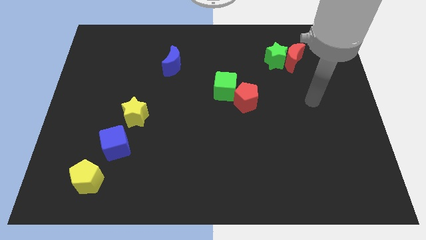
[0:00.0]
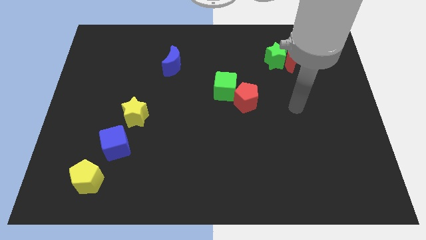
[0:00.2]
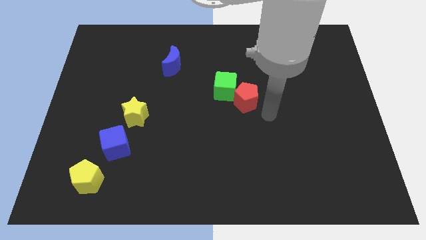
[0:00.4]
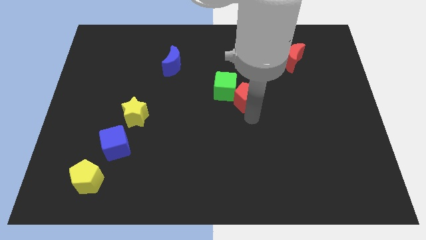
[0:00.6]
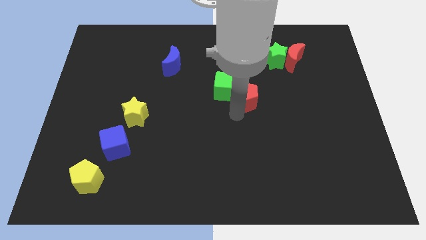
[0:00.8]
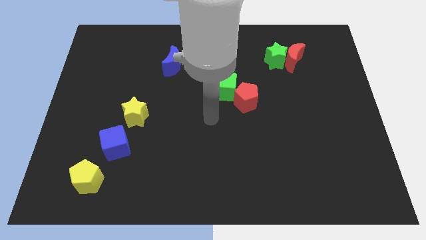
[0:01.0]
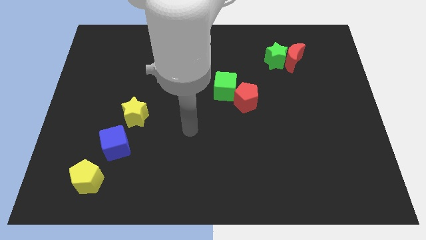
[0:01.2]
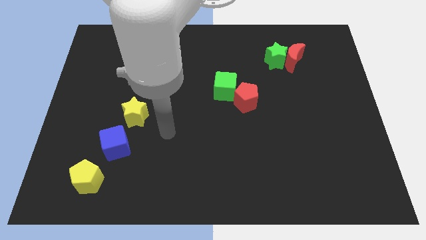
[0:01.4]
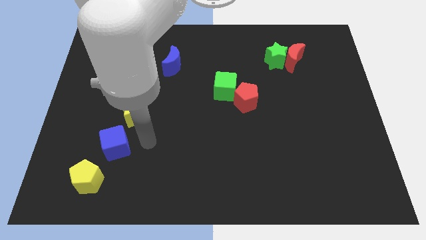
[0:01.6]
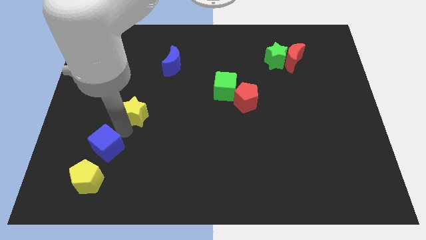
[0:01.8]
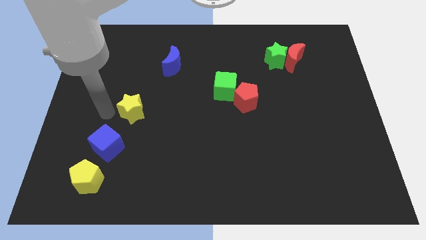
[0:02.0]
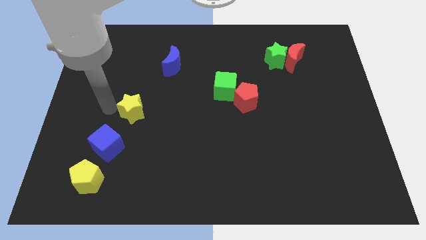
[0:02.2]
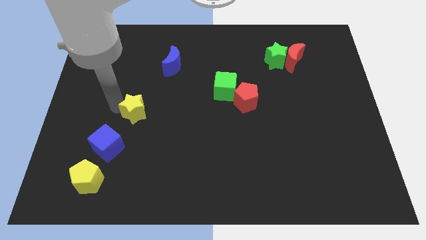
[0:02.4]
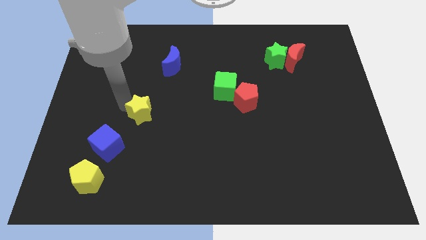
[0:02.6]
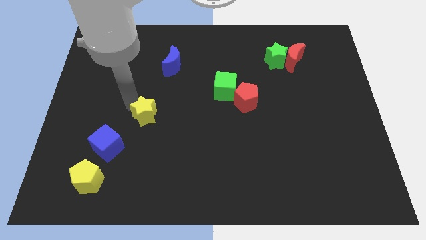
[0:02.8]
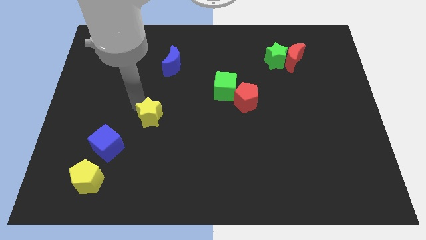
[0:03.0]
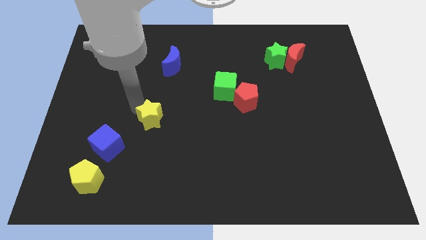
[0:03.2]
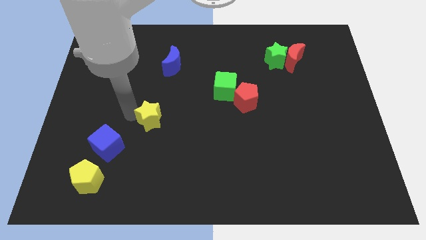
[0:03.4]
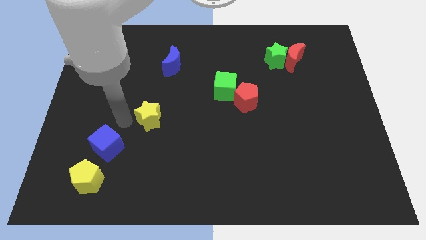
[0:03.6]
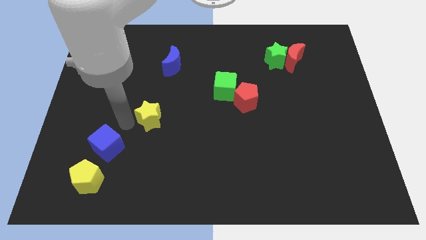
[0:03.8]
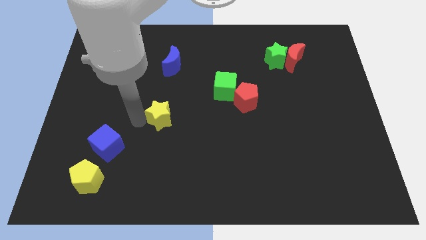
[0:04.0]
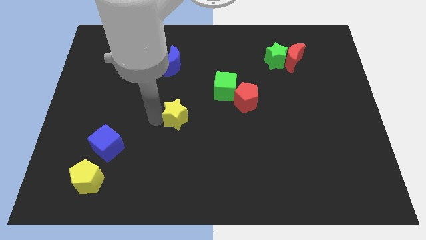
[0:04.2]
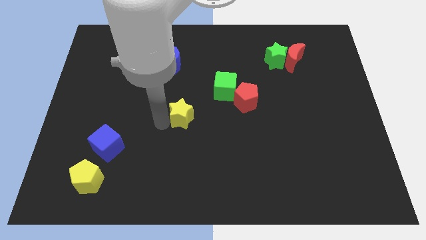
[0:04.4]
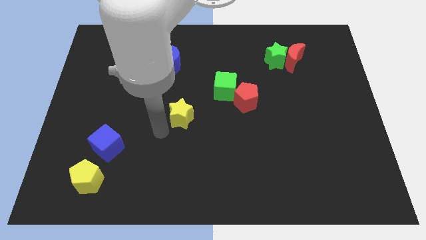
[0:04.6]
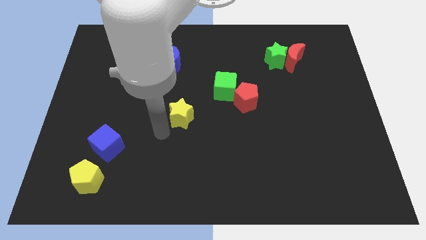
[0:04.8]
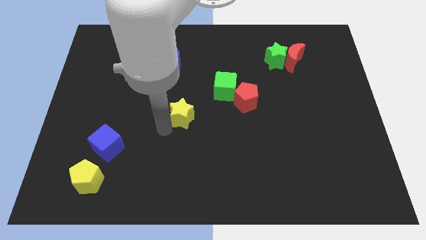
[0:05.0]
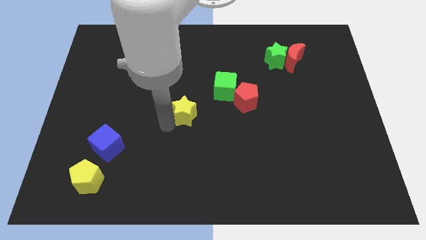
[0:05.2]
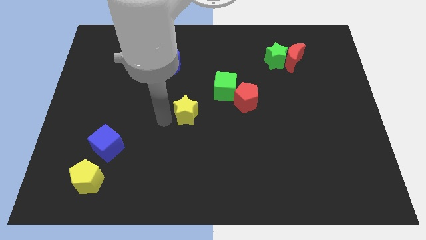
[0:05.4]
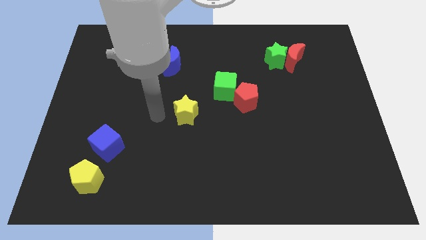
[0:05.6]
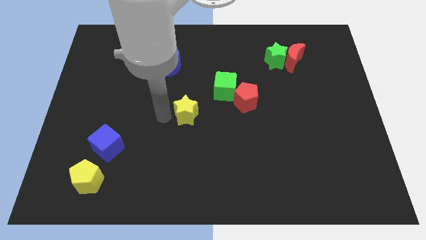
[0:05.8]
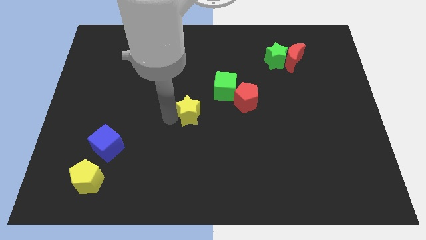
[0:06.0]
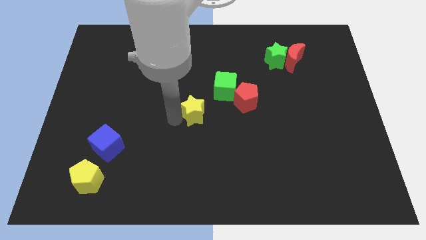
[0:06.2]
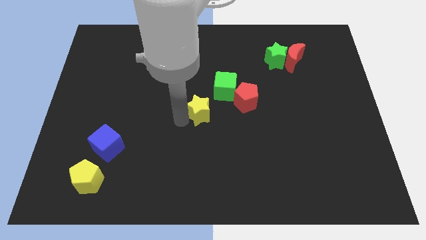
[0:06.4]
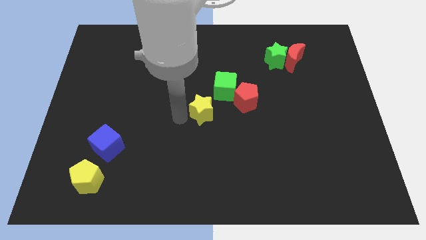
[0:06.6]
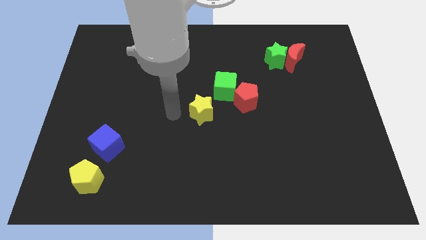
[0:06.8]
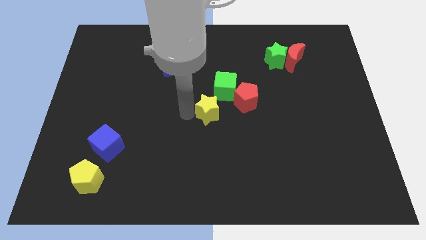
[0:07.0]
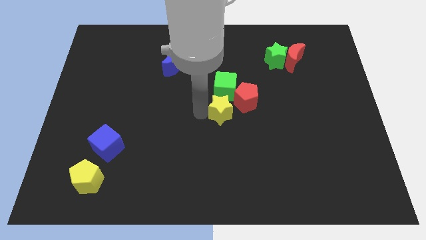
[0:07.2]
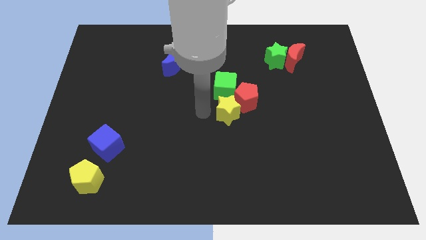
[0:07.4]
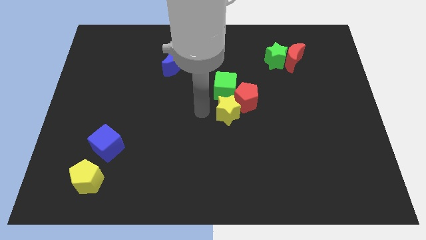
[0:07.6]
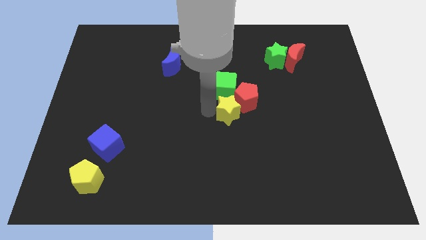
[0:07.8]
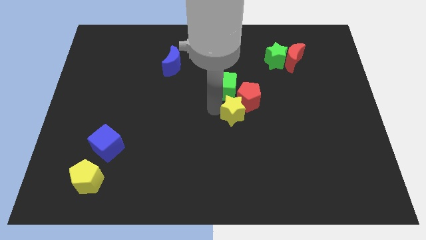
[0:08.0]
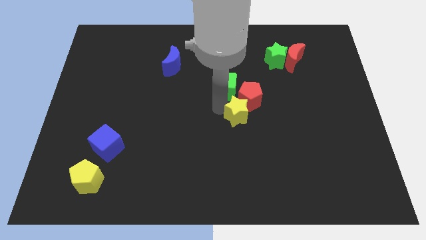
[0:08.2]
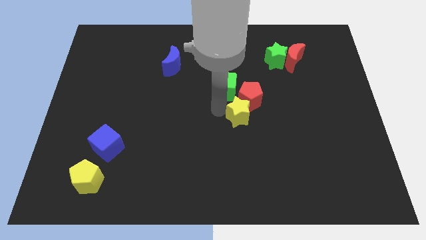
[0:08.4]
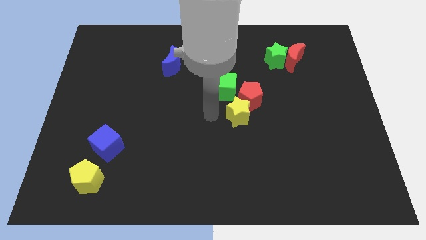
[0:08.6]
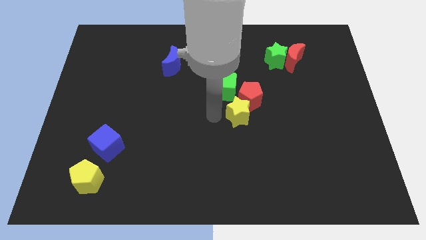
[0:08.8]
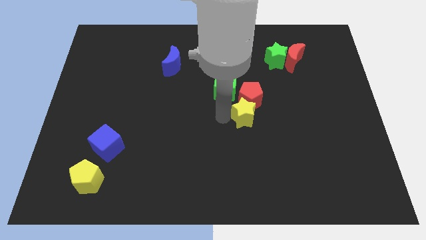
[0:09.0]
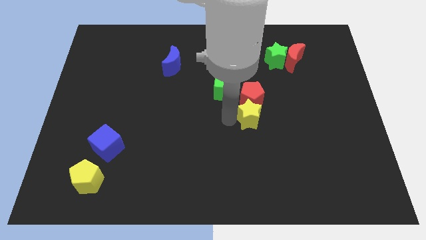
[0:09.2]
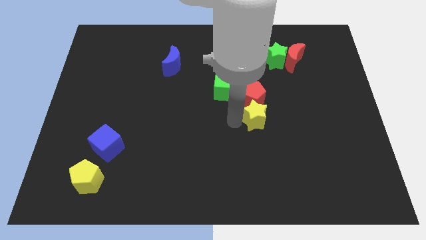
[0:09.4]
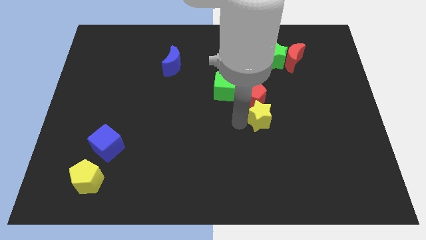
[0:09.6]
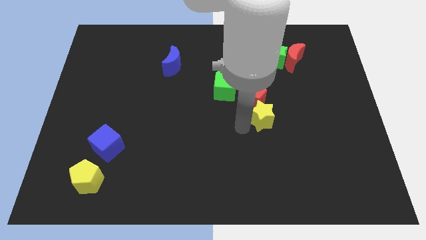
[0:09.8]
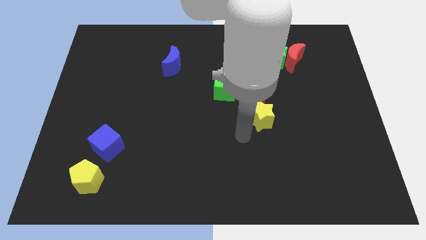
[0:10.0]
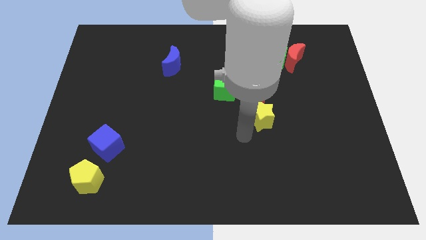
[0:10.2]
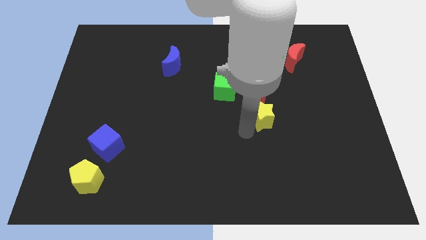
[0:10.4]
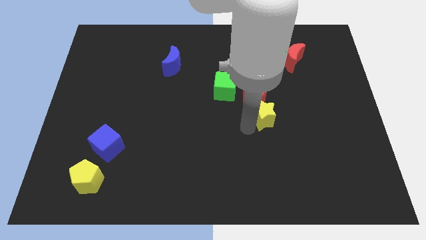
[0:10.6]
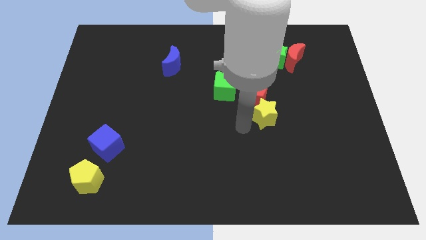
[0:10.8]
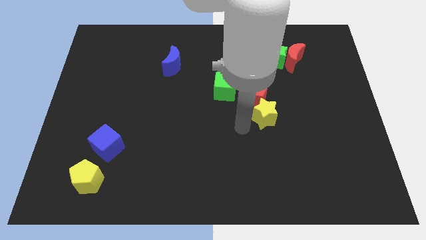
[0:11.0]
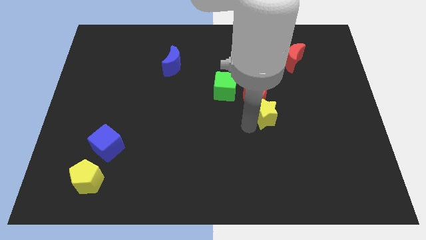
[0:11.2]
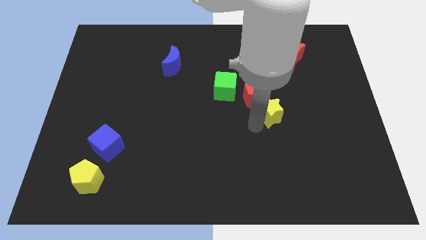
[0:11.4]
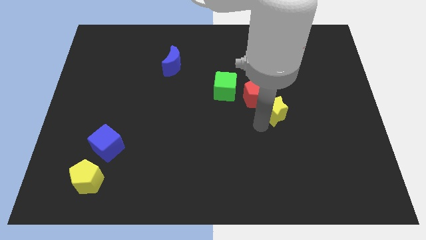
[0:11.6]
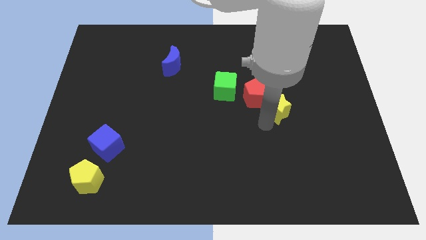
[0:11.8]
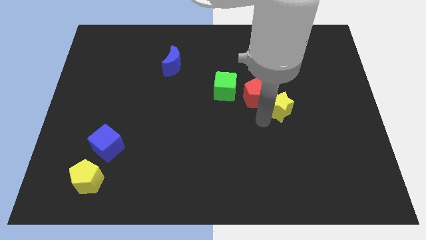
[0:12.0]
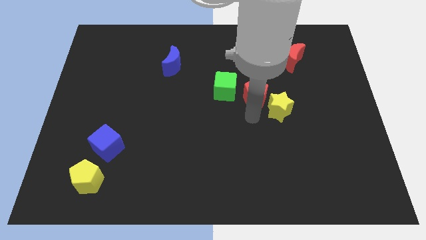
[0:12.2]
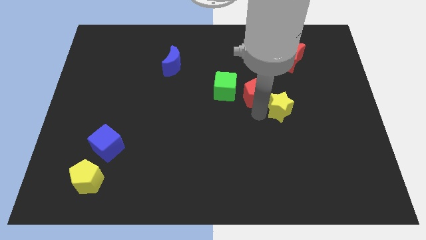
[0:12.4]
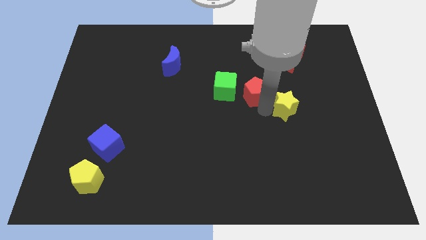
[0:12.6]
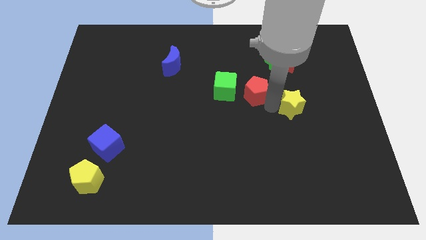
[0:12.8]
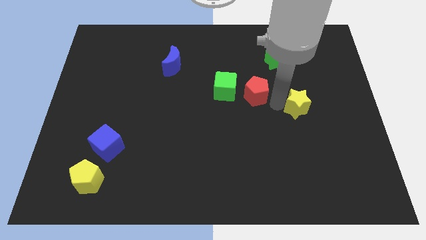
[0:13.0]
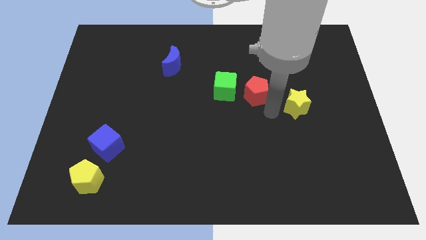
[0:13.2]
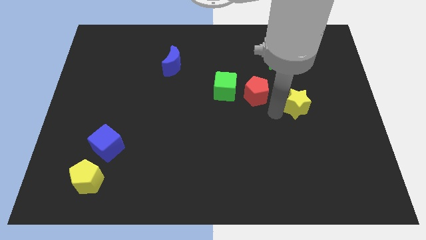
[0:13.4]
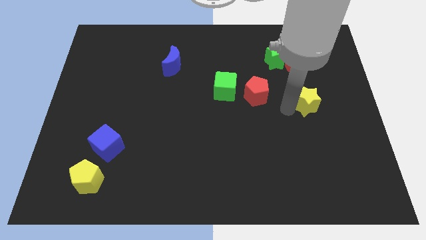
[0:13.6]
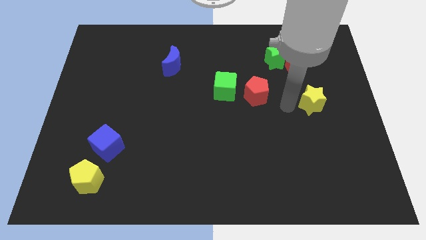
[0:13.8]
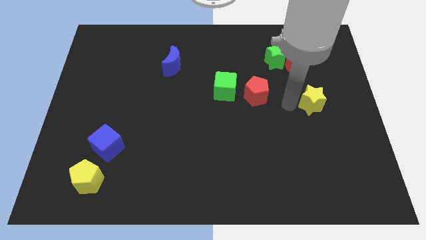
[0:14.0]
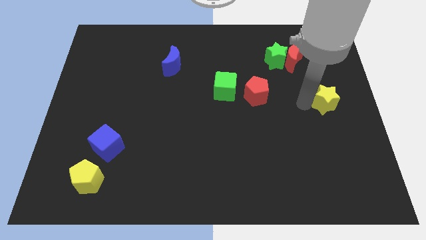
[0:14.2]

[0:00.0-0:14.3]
move the yellow star to the right side of the board

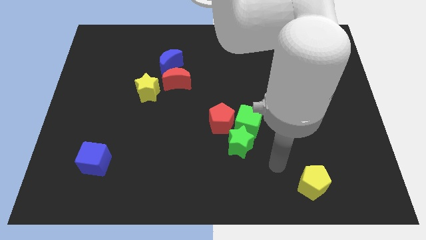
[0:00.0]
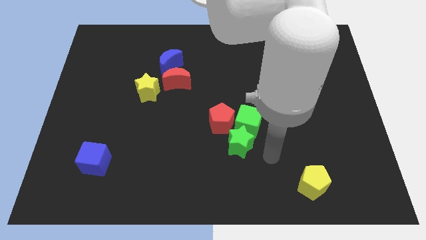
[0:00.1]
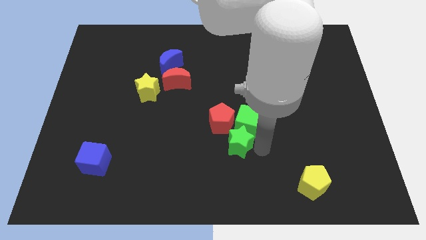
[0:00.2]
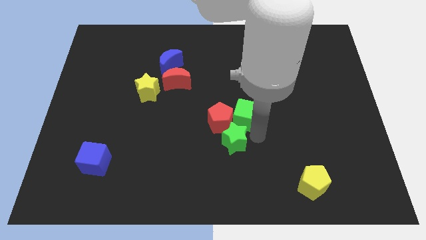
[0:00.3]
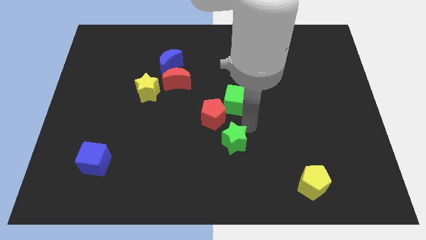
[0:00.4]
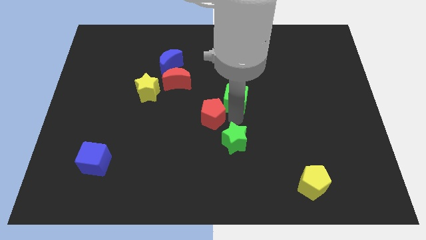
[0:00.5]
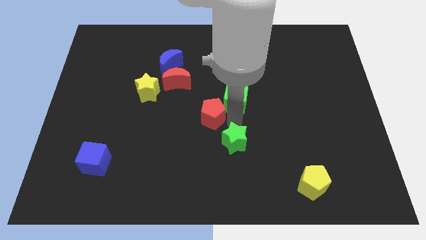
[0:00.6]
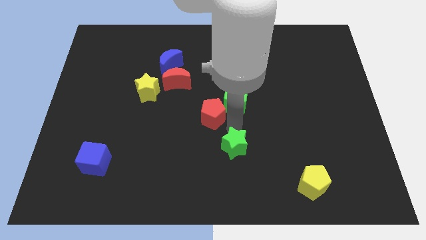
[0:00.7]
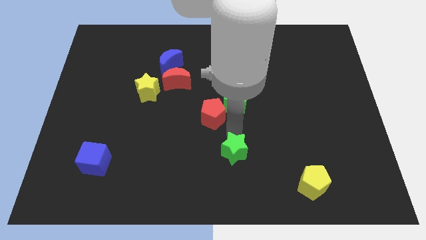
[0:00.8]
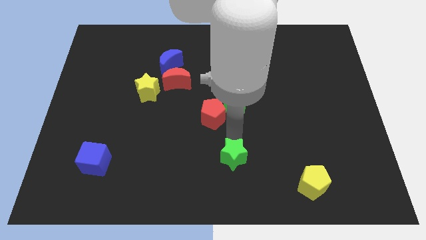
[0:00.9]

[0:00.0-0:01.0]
slide the green star to the bottom side
